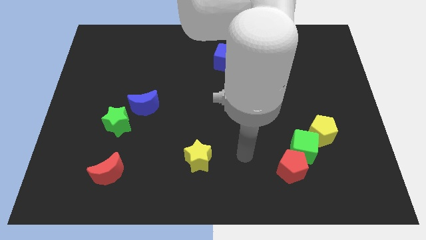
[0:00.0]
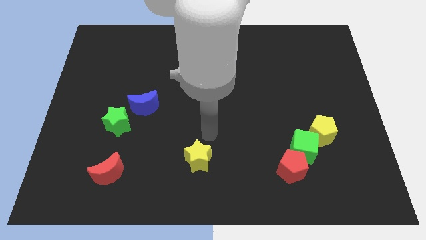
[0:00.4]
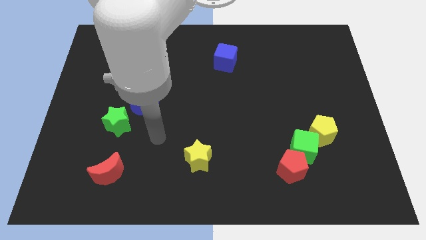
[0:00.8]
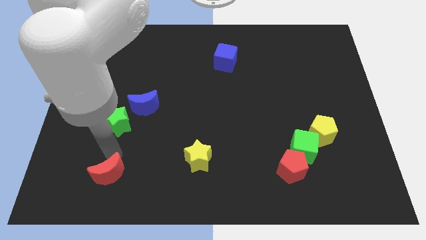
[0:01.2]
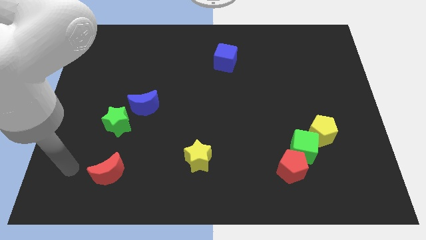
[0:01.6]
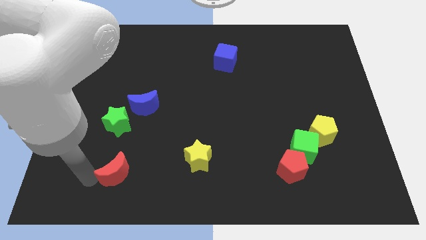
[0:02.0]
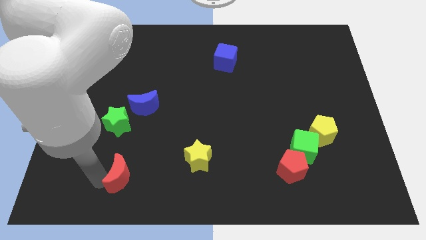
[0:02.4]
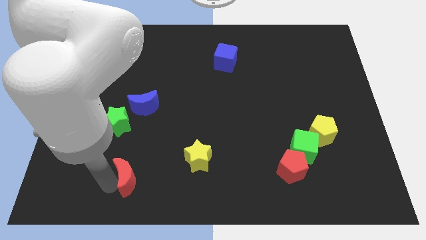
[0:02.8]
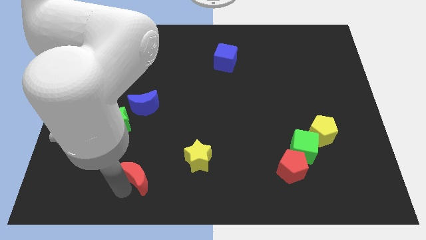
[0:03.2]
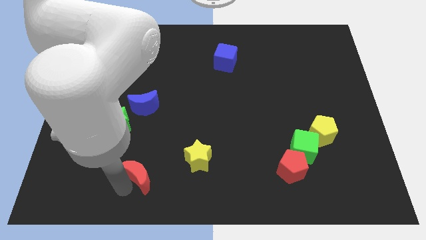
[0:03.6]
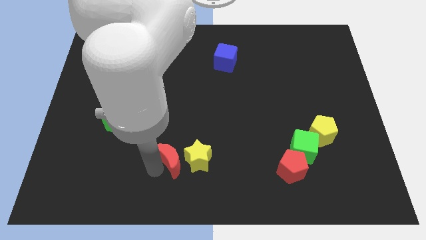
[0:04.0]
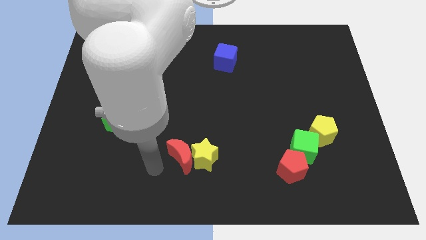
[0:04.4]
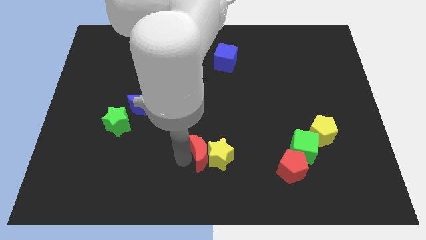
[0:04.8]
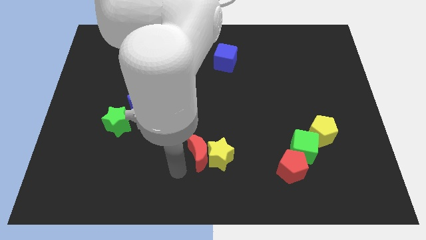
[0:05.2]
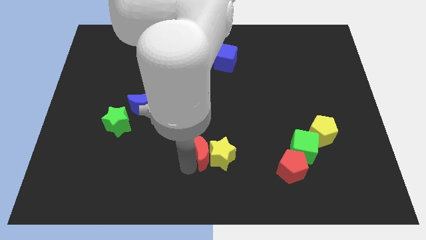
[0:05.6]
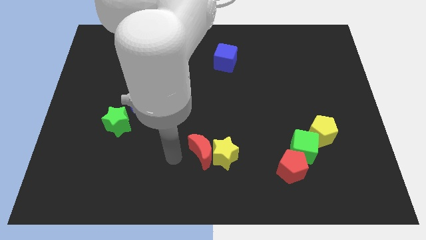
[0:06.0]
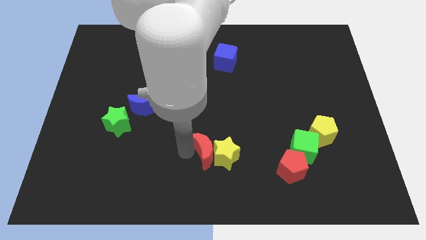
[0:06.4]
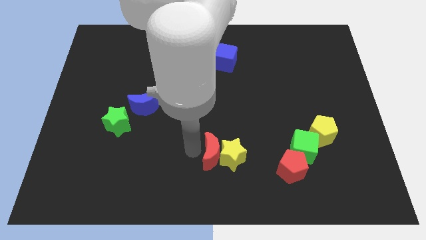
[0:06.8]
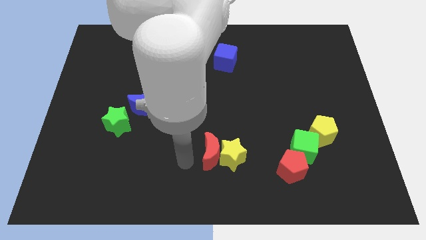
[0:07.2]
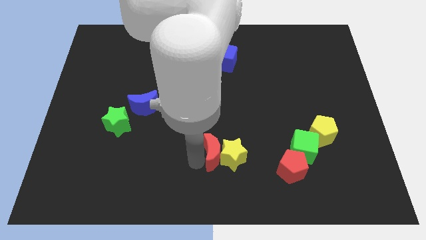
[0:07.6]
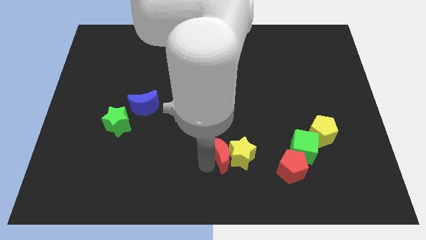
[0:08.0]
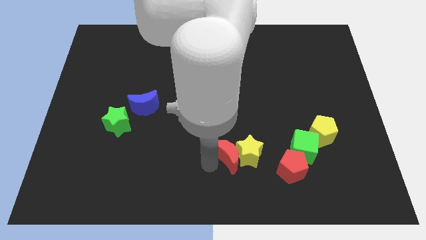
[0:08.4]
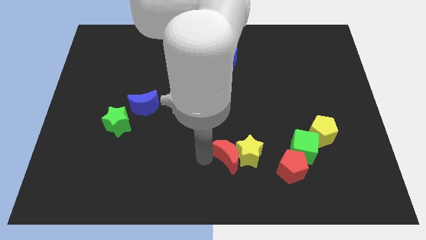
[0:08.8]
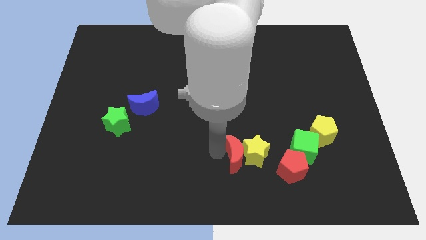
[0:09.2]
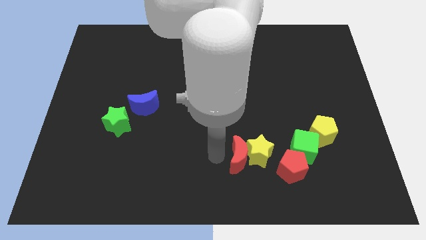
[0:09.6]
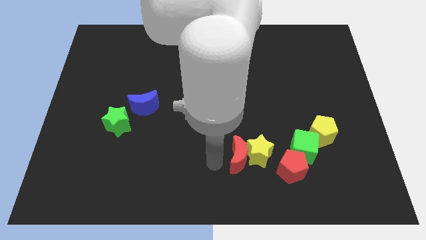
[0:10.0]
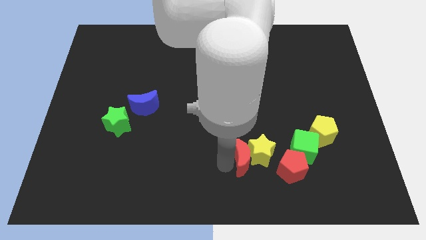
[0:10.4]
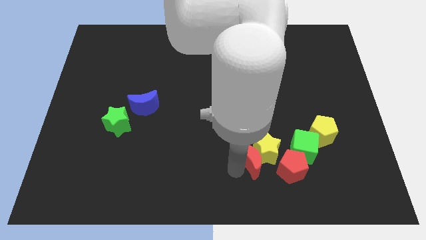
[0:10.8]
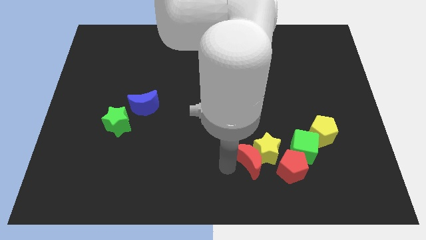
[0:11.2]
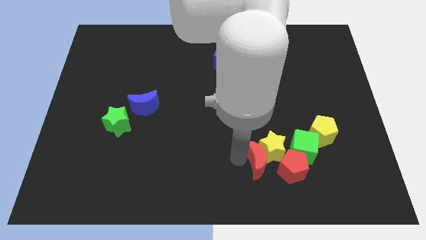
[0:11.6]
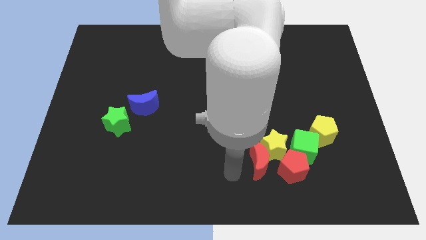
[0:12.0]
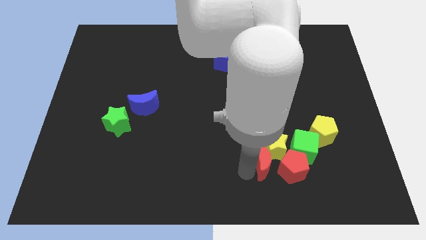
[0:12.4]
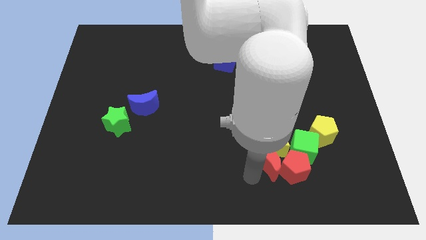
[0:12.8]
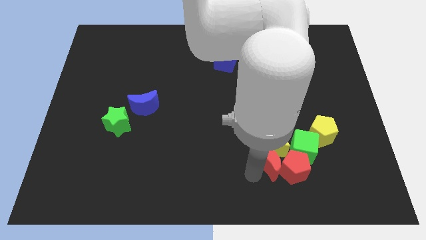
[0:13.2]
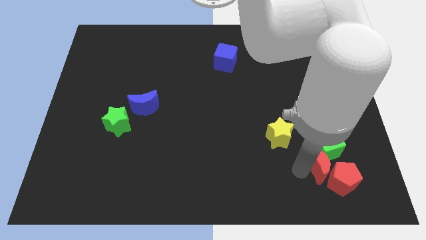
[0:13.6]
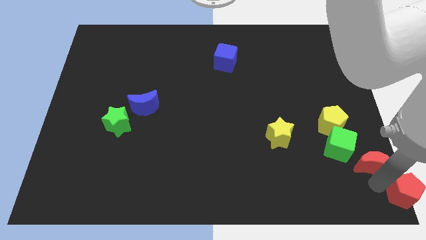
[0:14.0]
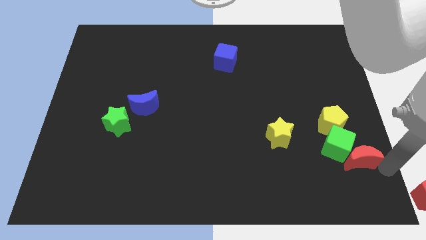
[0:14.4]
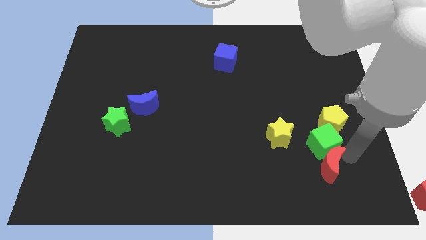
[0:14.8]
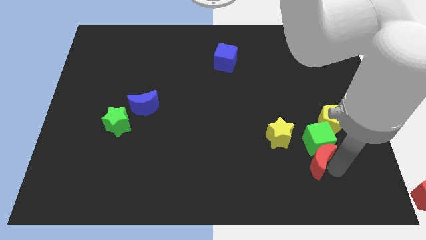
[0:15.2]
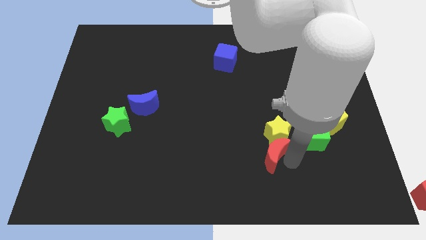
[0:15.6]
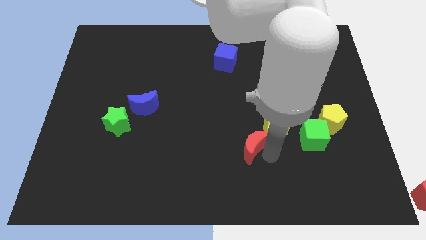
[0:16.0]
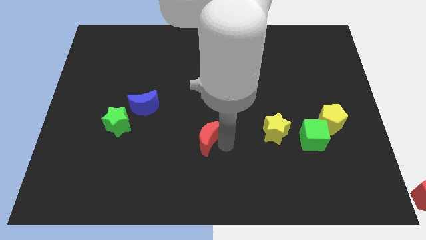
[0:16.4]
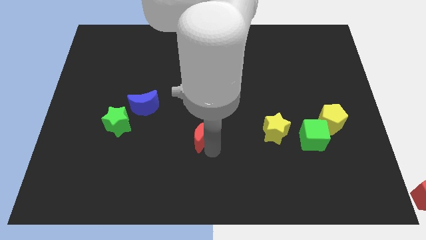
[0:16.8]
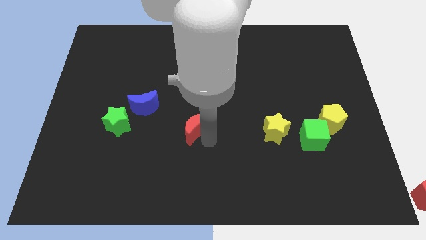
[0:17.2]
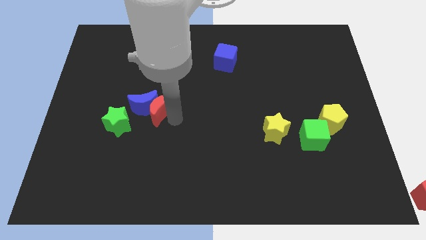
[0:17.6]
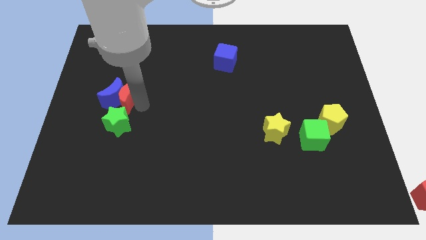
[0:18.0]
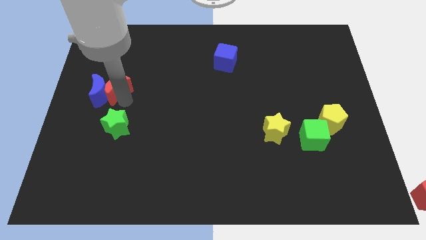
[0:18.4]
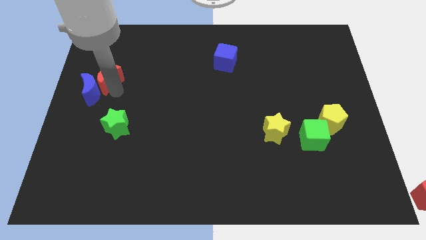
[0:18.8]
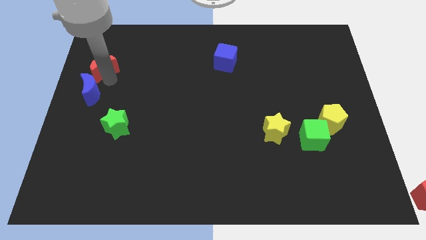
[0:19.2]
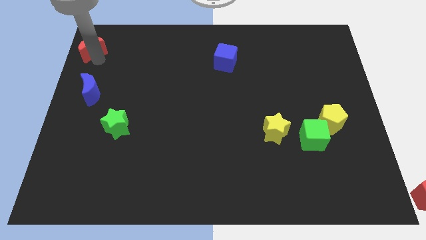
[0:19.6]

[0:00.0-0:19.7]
move the red moon to the top left corner

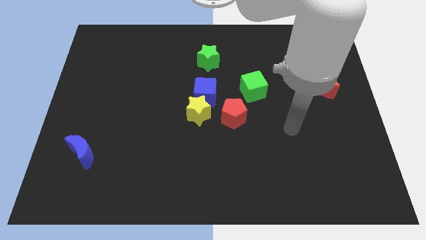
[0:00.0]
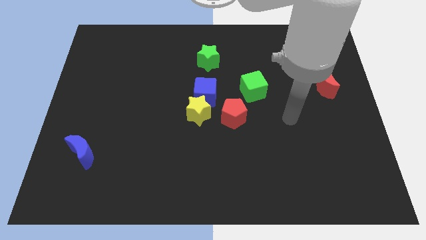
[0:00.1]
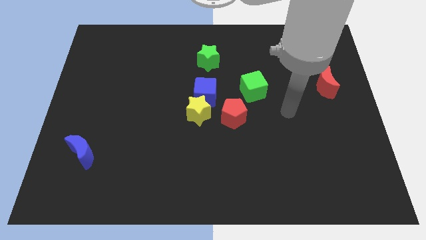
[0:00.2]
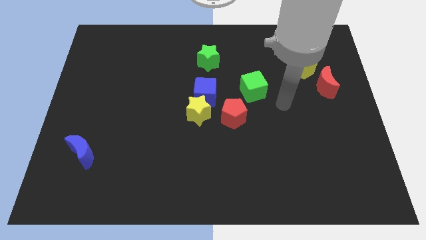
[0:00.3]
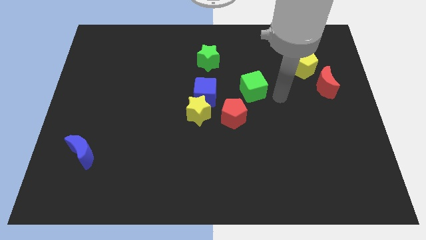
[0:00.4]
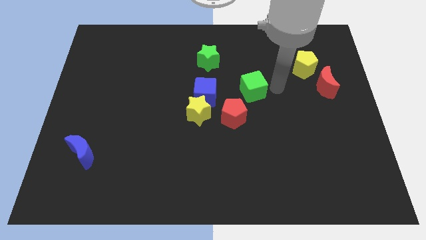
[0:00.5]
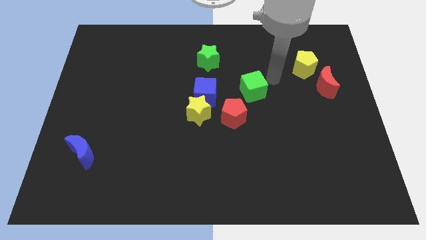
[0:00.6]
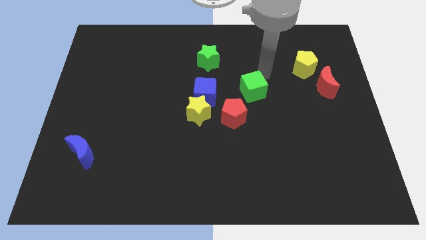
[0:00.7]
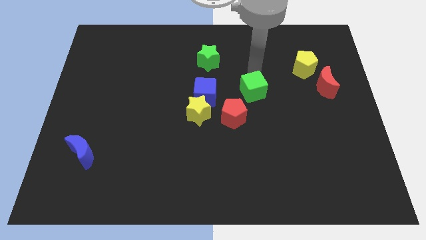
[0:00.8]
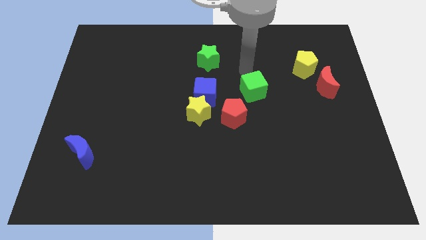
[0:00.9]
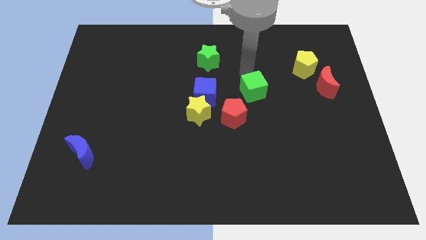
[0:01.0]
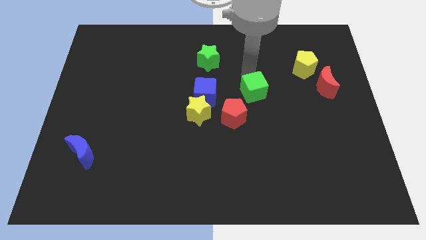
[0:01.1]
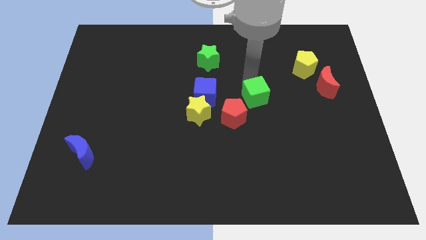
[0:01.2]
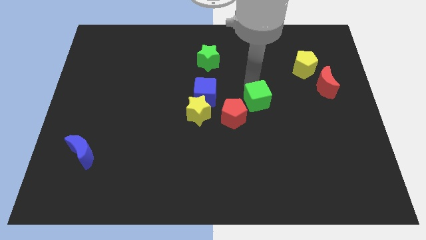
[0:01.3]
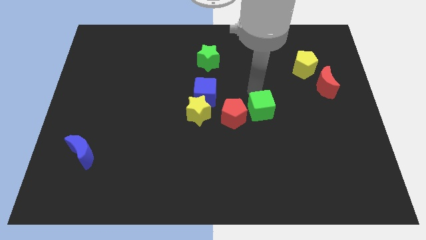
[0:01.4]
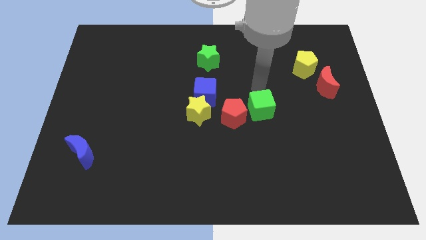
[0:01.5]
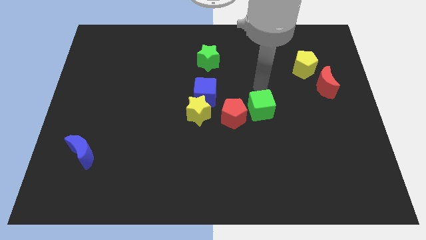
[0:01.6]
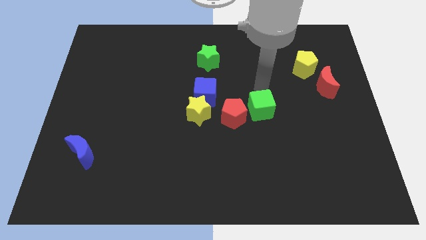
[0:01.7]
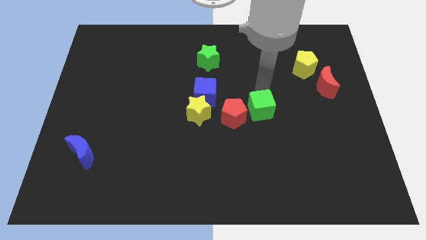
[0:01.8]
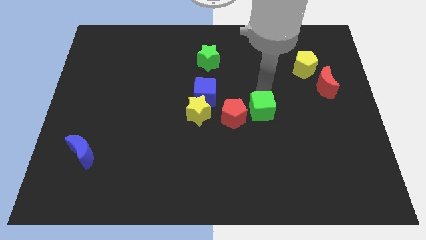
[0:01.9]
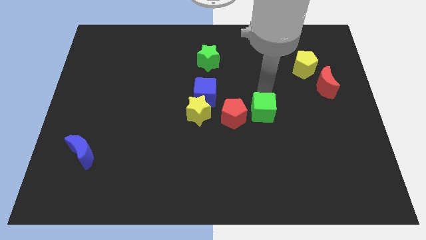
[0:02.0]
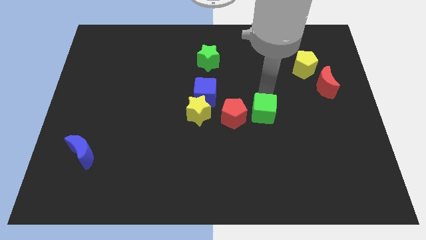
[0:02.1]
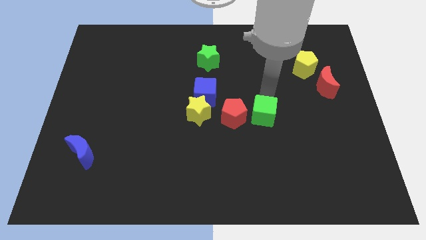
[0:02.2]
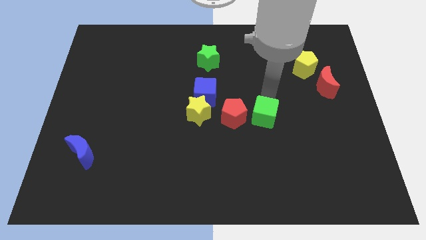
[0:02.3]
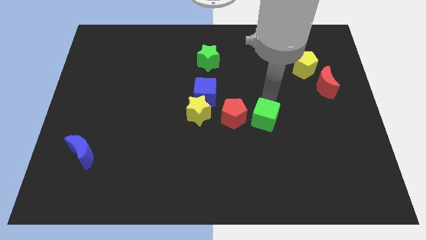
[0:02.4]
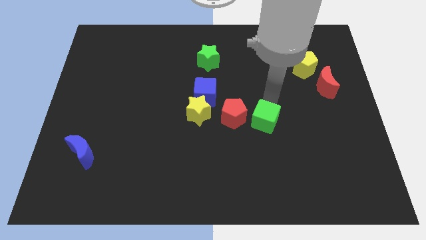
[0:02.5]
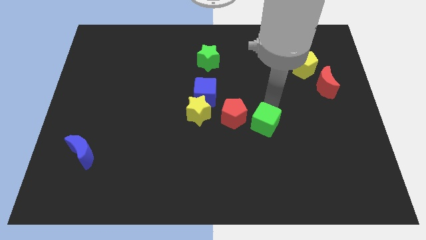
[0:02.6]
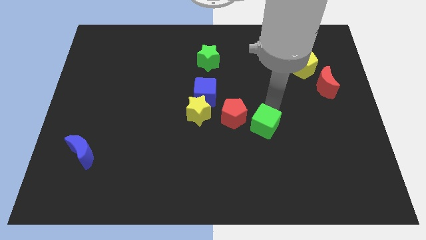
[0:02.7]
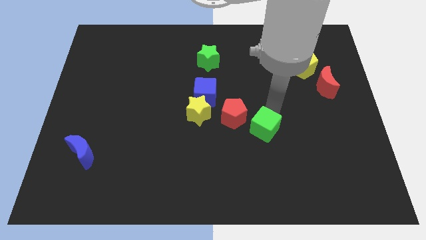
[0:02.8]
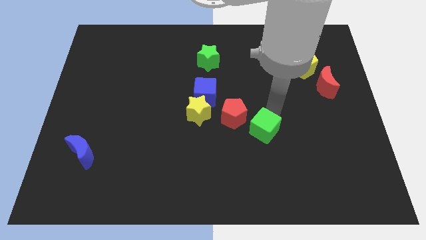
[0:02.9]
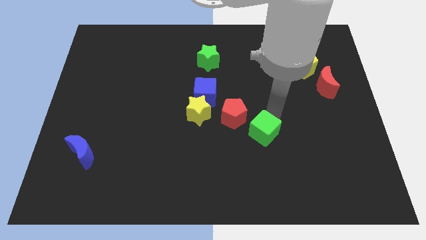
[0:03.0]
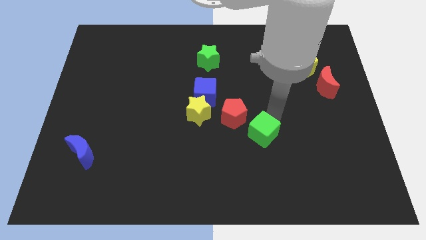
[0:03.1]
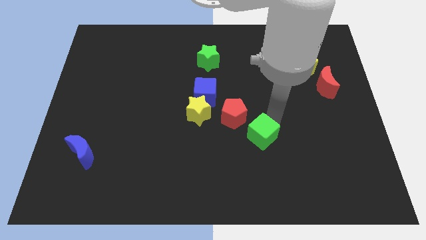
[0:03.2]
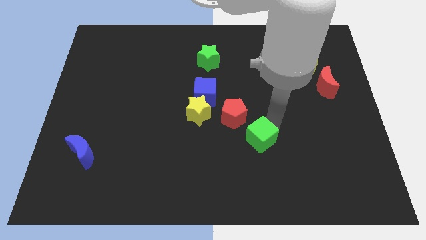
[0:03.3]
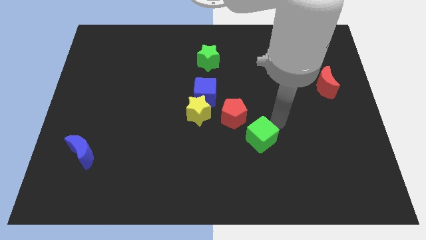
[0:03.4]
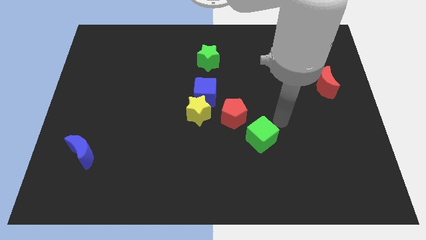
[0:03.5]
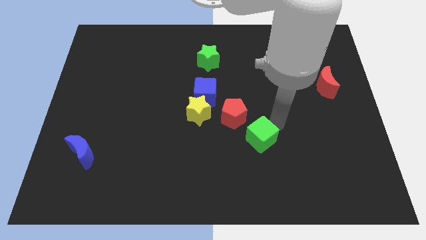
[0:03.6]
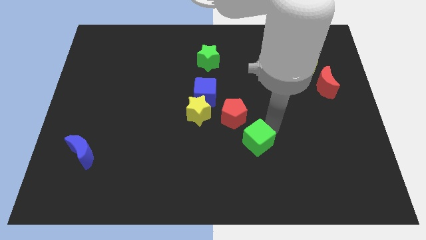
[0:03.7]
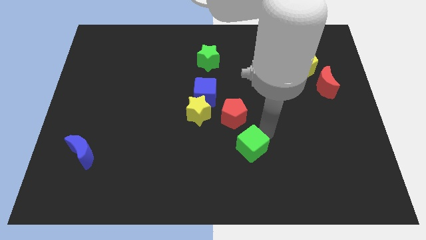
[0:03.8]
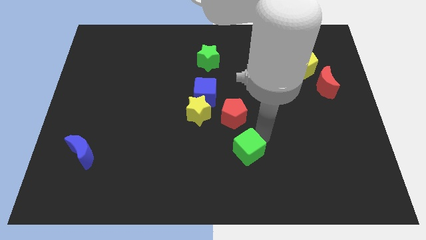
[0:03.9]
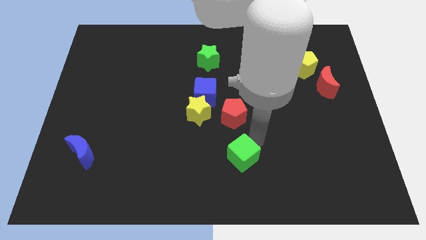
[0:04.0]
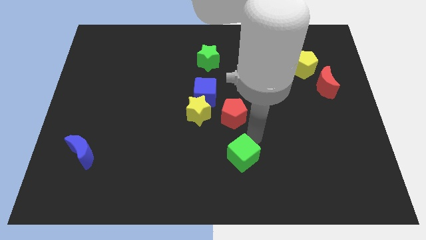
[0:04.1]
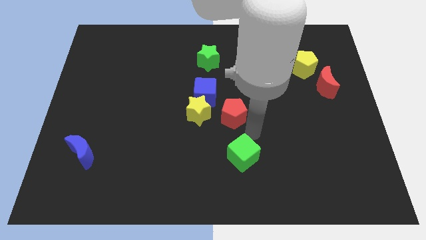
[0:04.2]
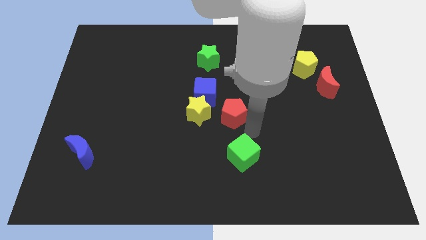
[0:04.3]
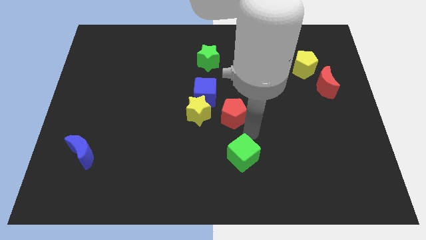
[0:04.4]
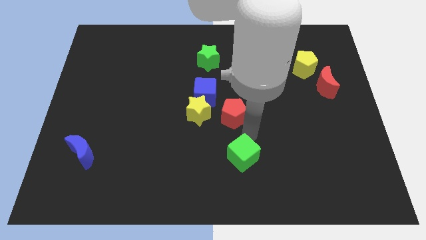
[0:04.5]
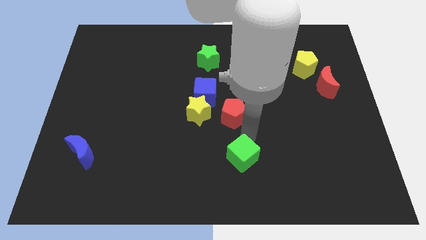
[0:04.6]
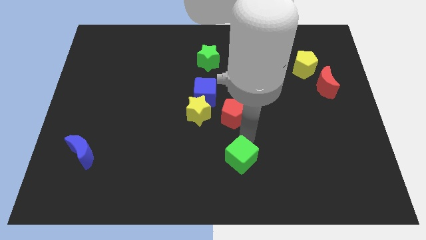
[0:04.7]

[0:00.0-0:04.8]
slide the green cube to the bottom side
